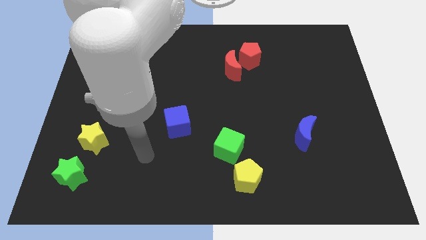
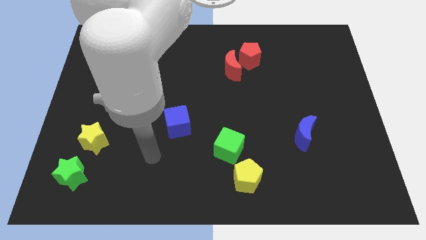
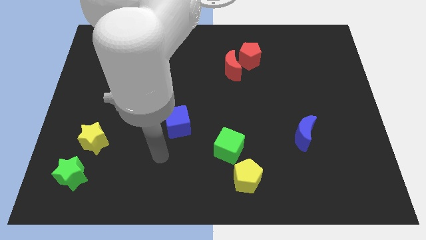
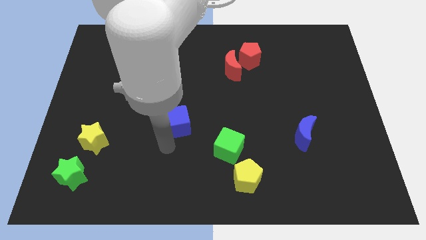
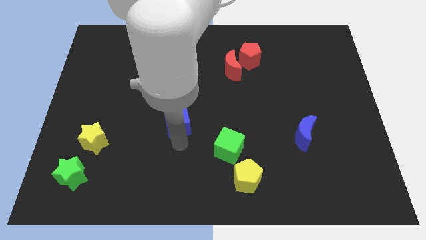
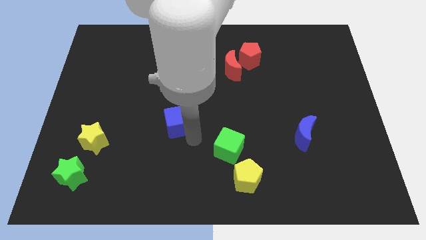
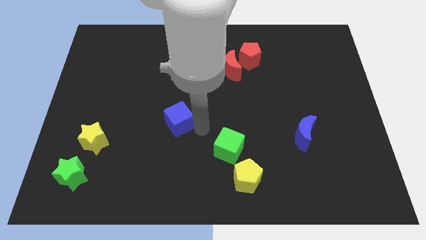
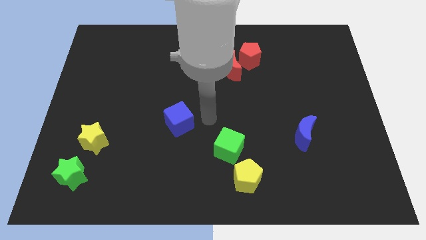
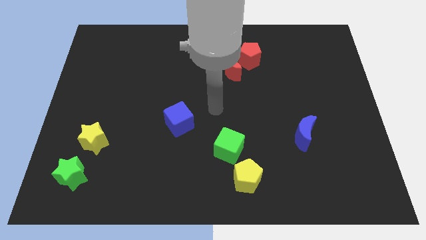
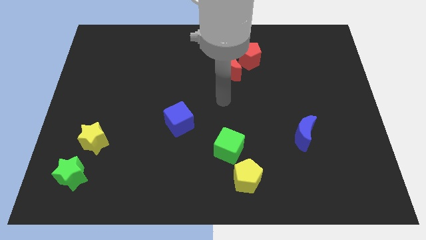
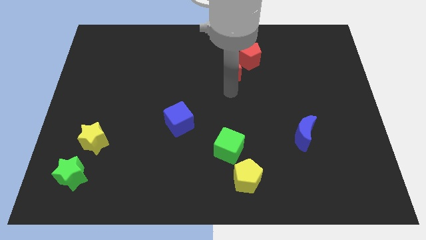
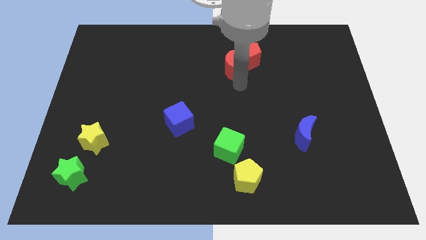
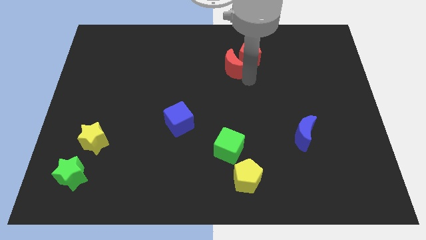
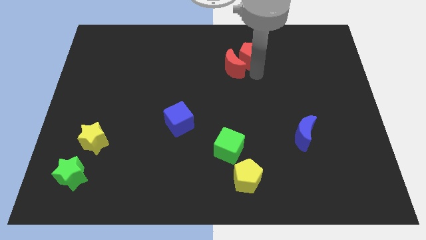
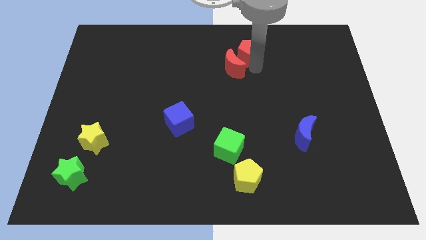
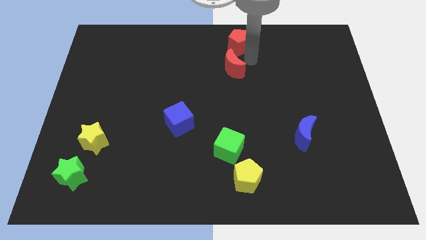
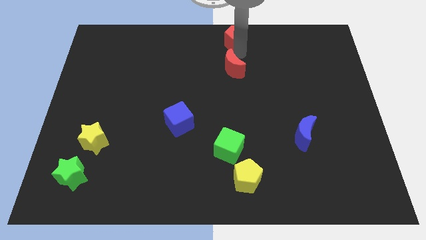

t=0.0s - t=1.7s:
separate the red moon from the red pentagon

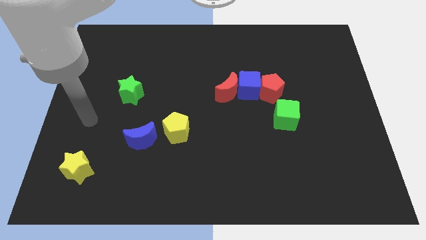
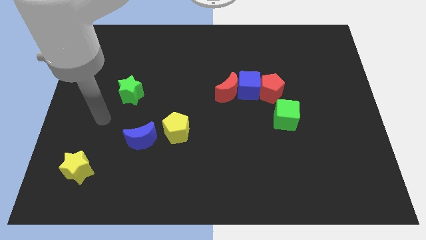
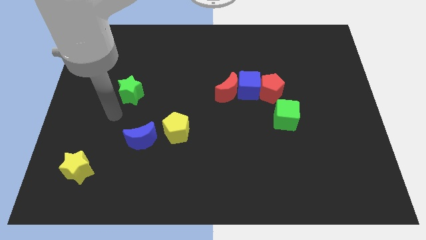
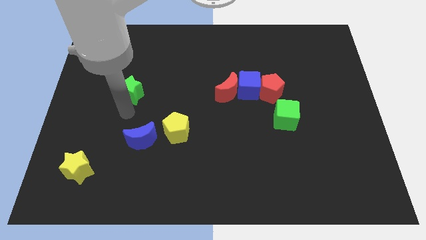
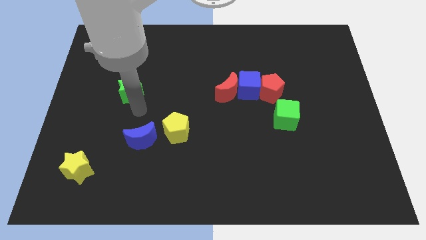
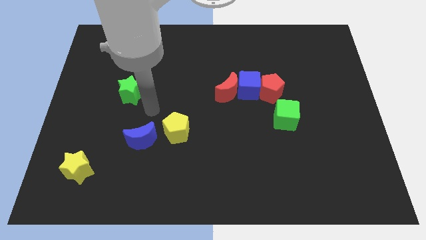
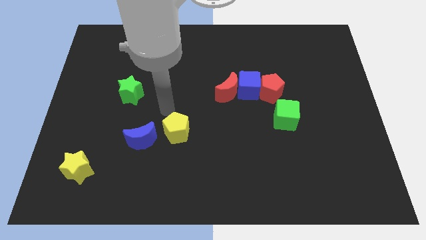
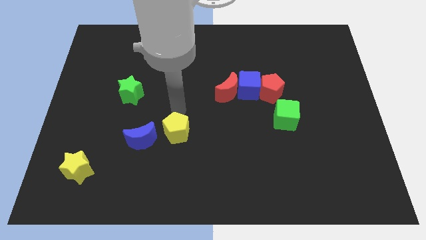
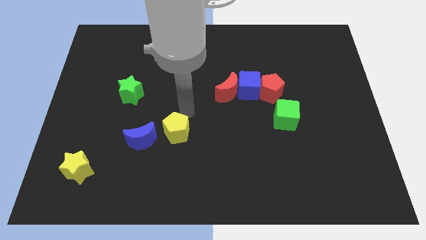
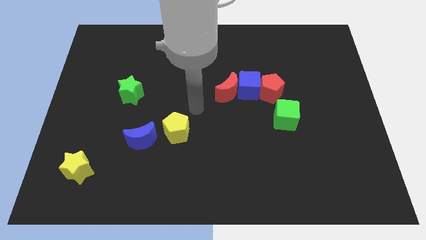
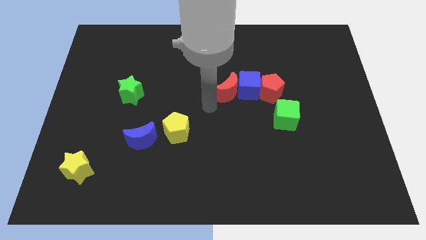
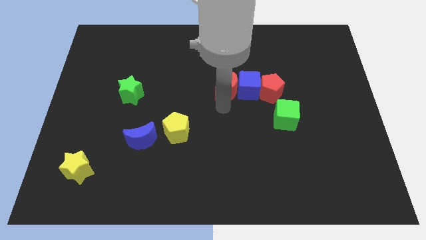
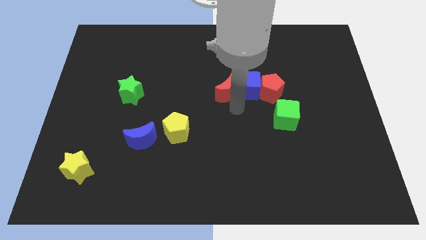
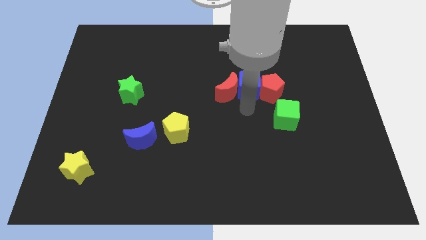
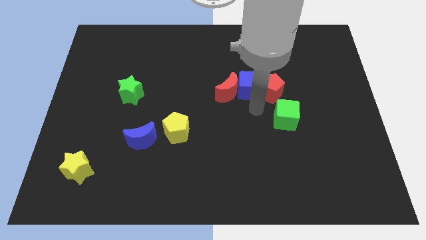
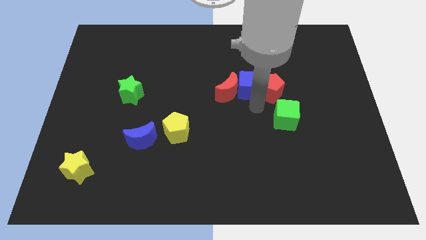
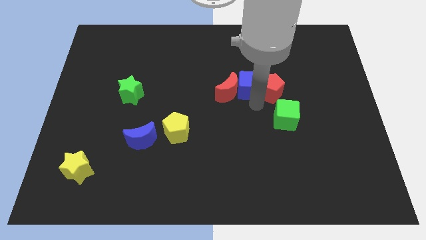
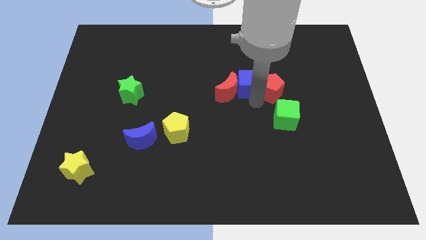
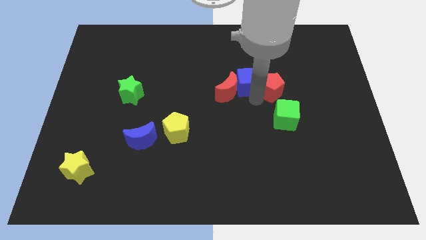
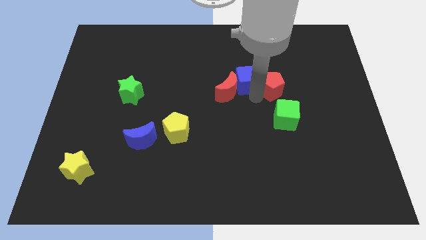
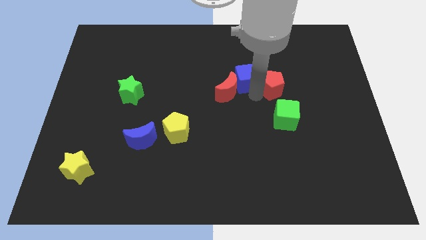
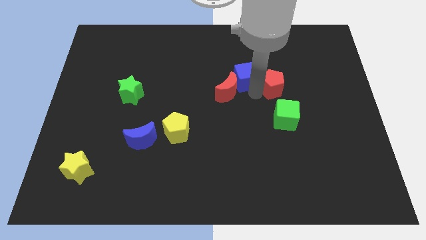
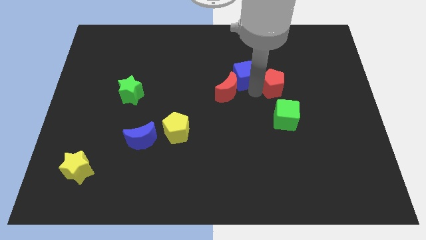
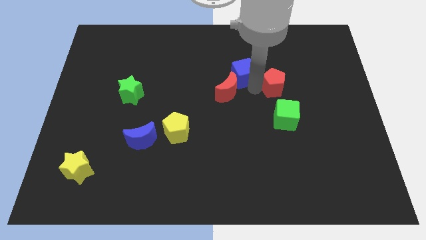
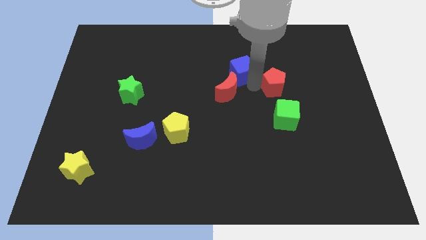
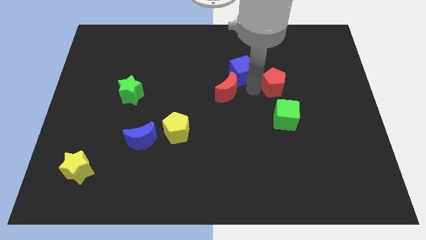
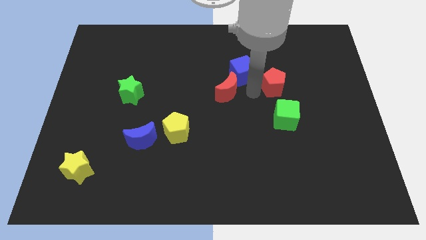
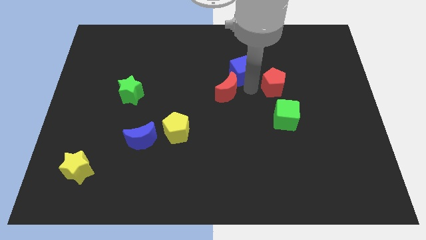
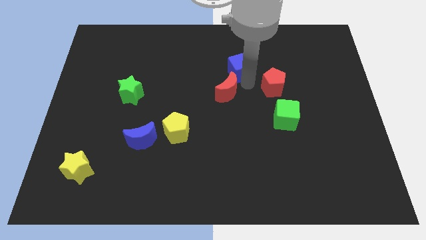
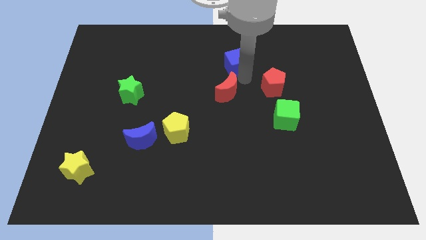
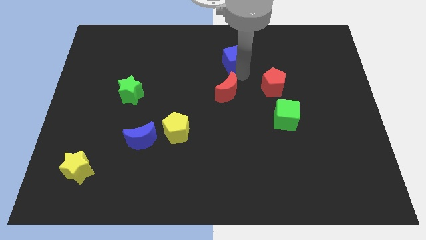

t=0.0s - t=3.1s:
pull the blue cube apart from the red moon and red pentagon

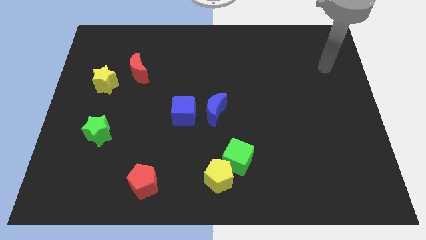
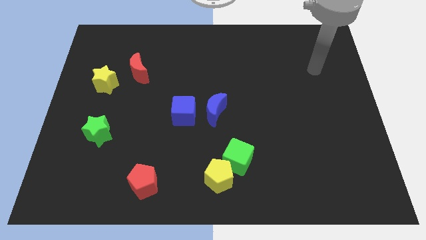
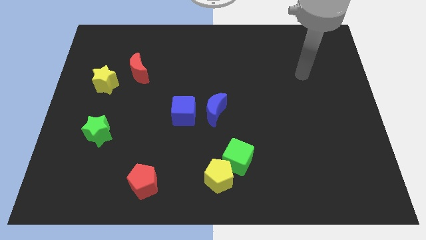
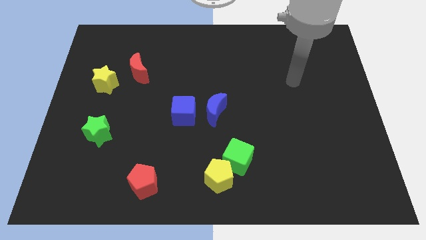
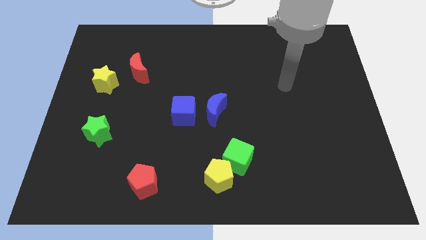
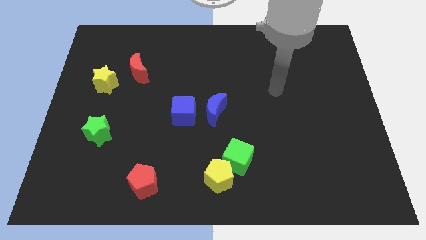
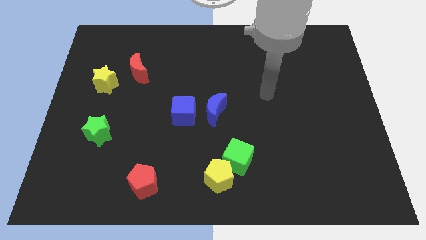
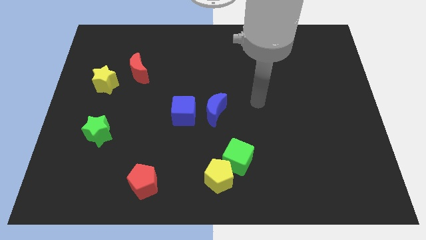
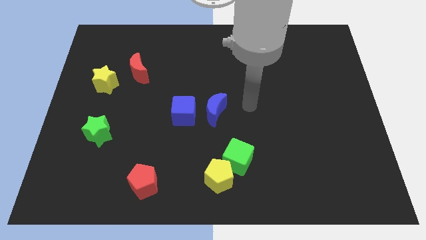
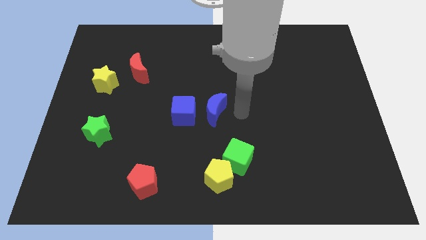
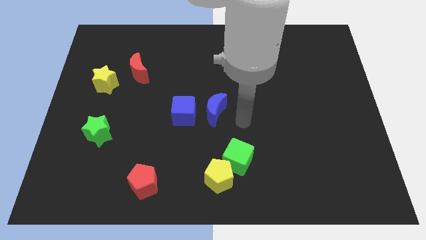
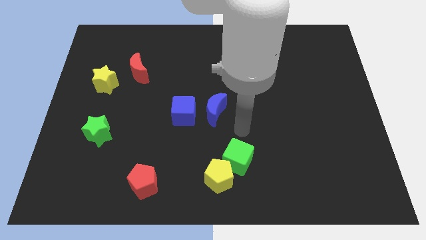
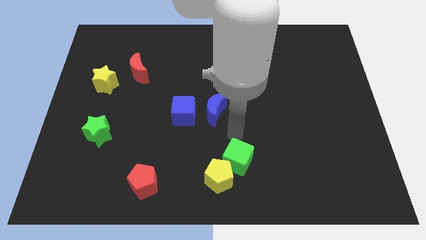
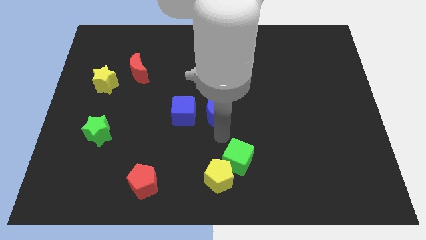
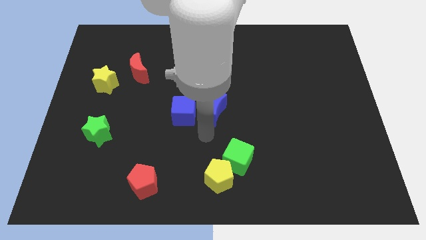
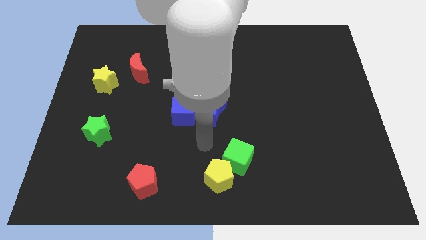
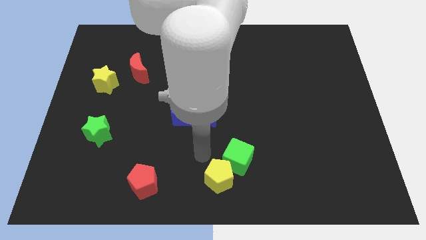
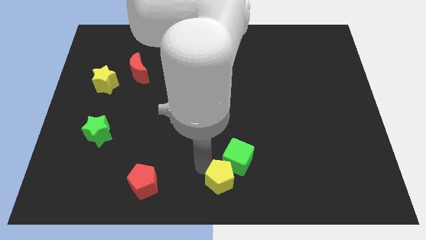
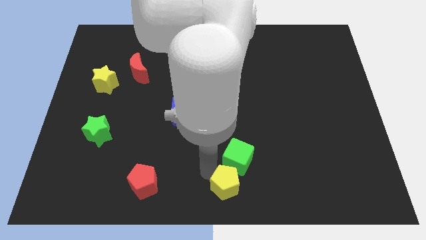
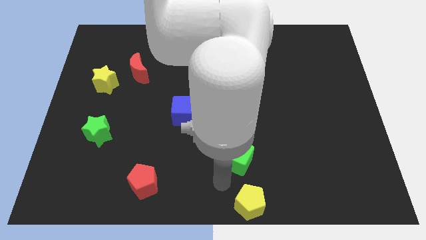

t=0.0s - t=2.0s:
move the green cube away from the yellow pentagon

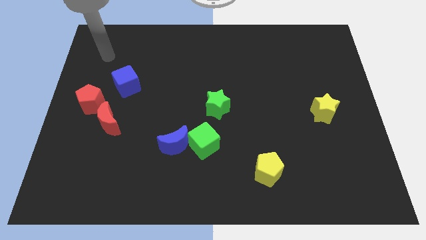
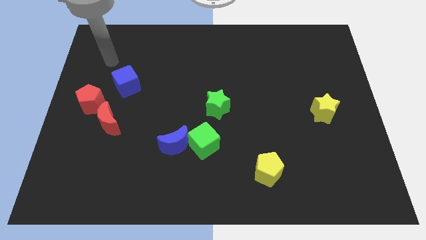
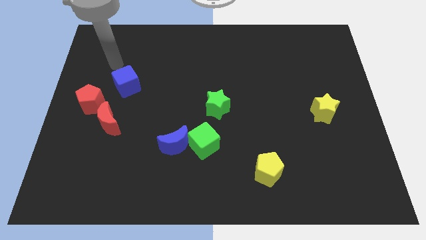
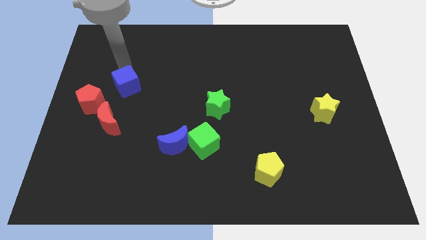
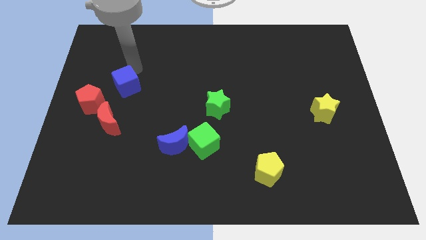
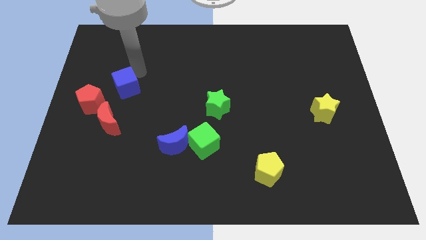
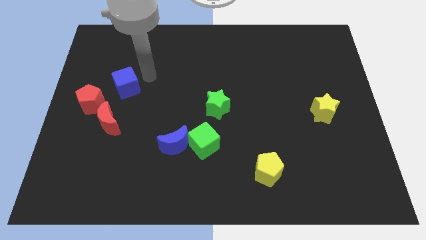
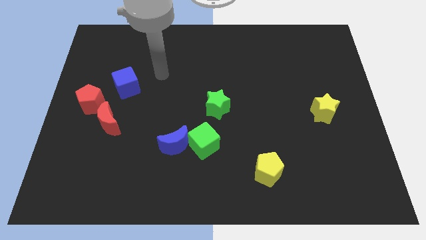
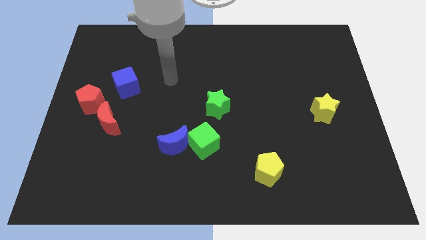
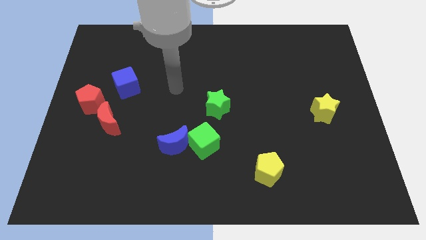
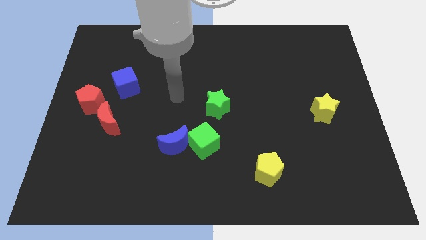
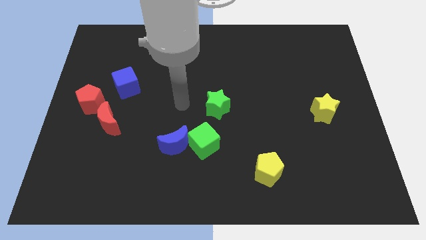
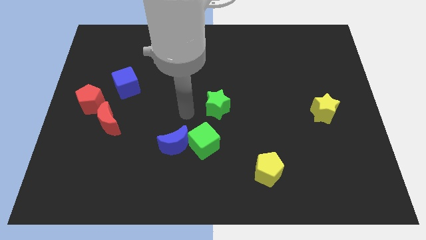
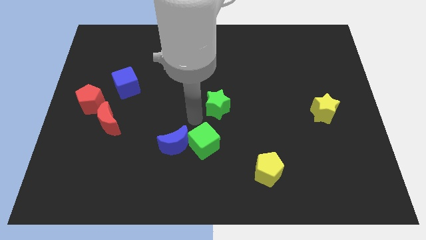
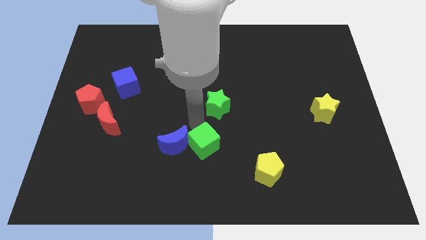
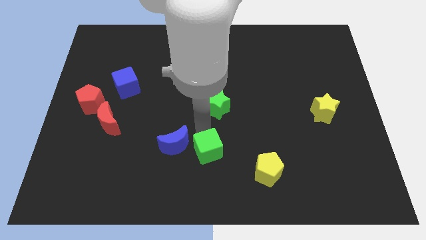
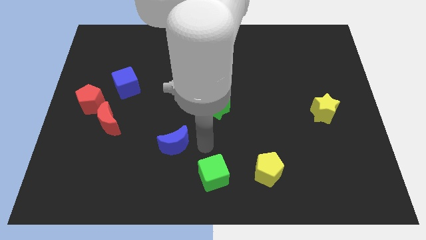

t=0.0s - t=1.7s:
move the blue moon away from the green cube

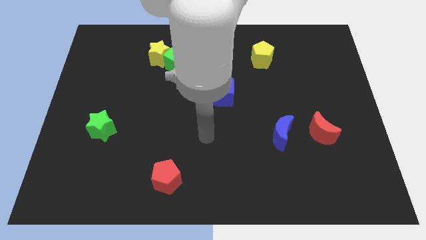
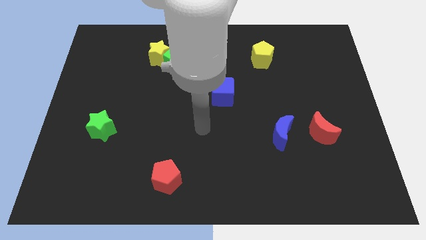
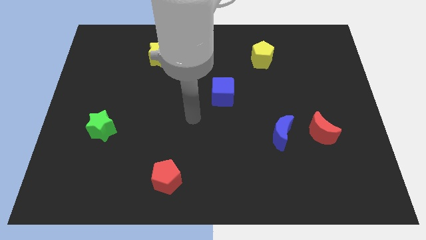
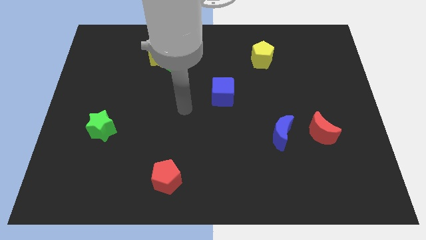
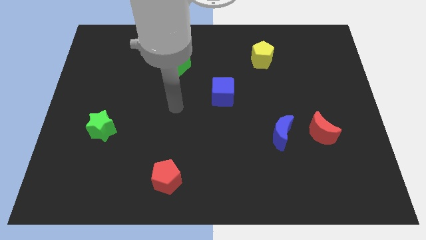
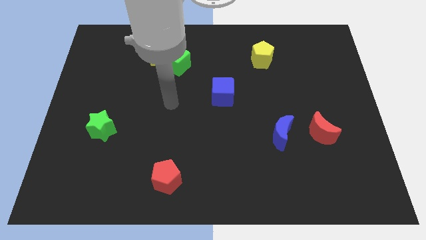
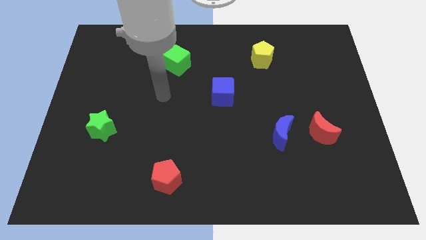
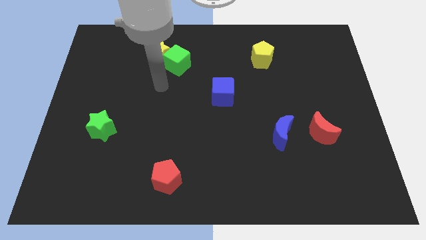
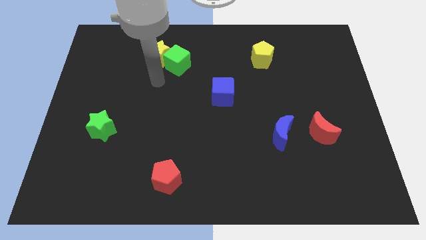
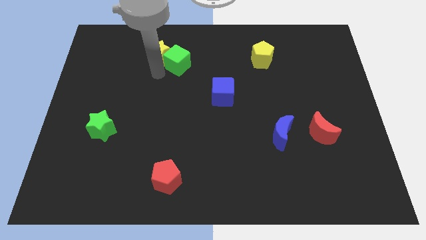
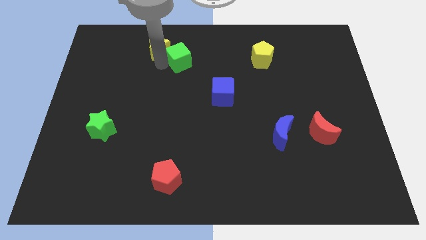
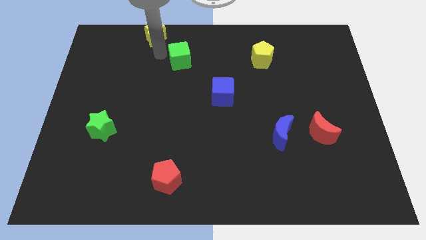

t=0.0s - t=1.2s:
pull the green cube apart from the yellow star
